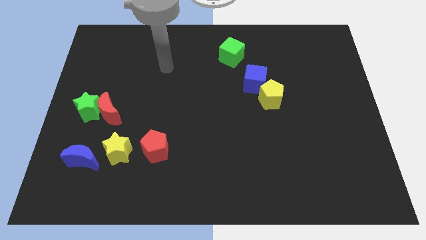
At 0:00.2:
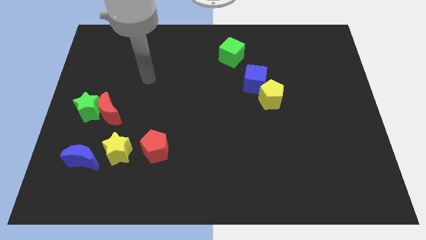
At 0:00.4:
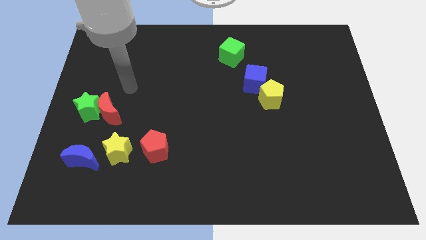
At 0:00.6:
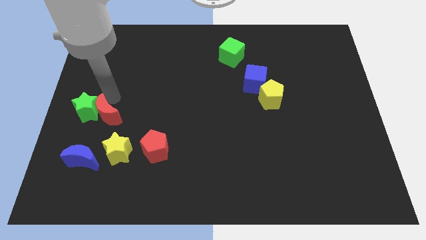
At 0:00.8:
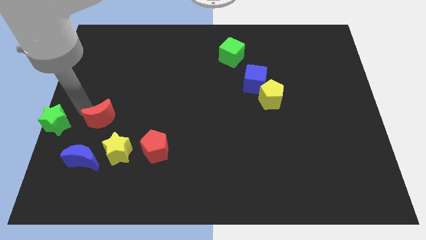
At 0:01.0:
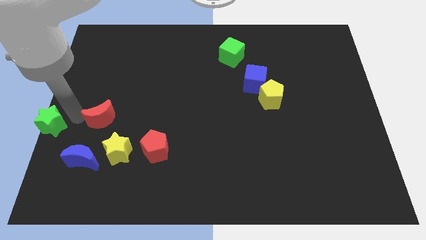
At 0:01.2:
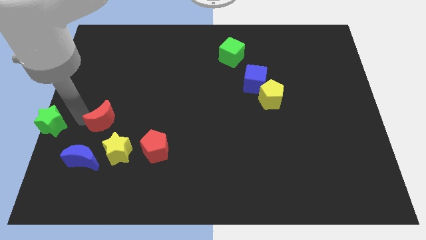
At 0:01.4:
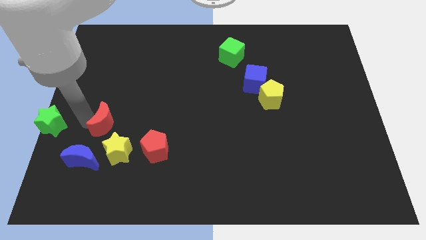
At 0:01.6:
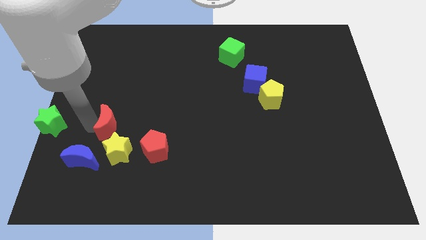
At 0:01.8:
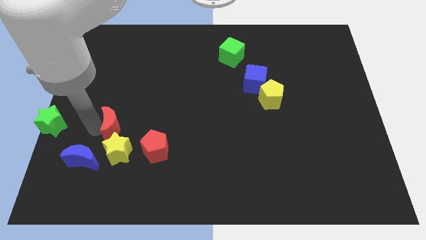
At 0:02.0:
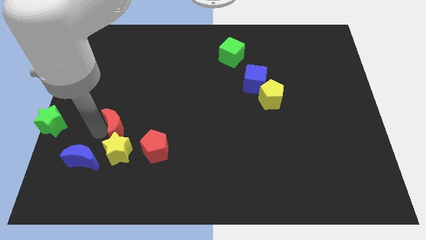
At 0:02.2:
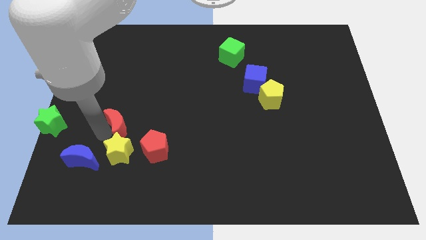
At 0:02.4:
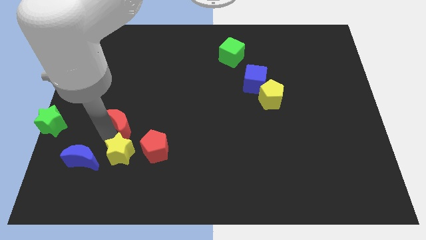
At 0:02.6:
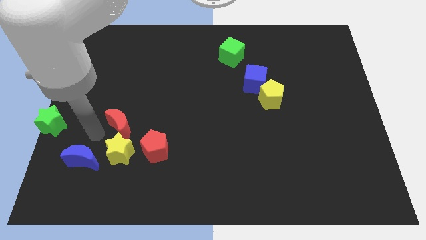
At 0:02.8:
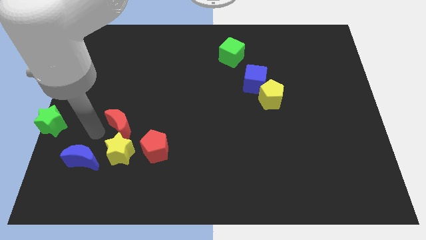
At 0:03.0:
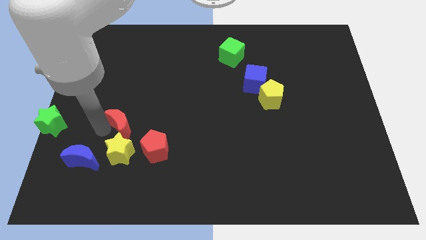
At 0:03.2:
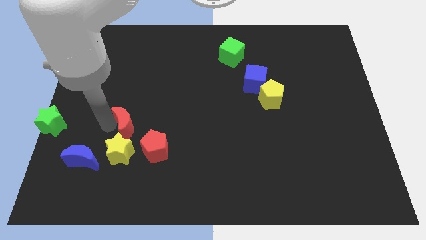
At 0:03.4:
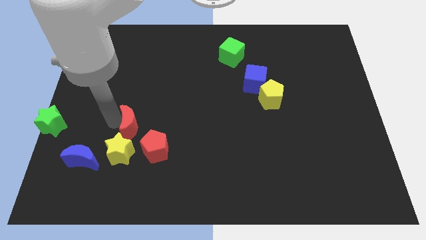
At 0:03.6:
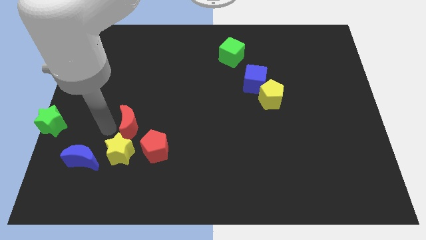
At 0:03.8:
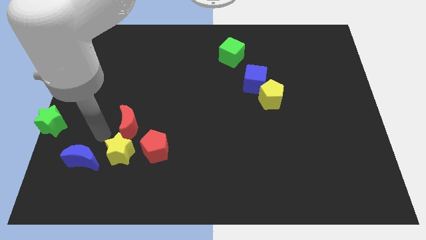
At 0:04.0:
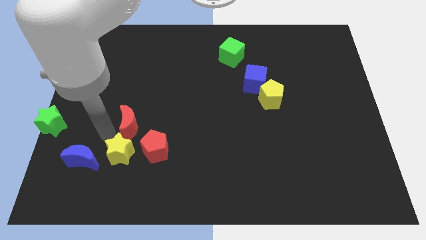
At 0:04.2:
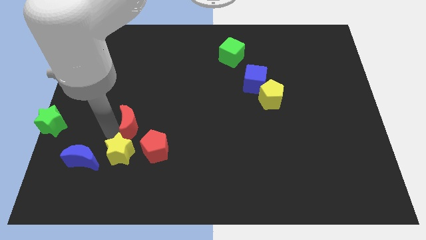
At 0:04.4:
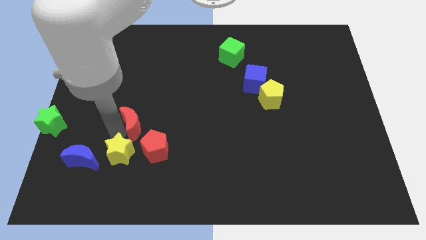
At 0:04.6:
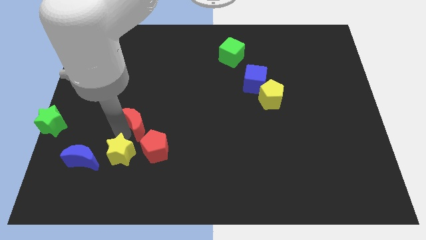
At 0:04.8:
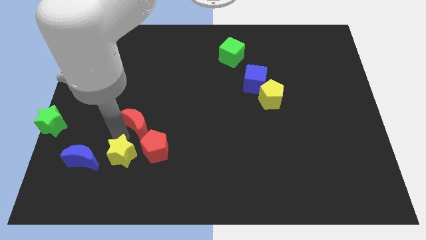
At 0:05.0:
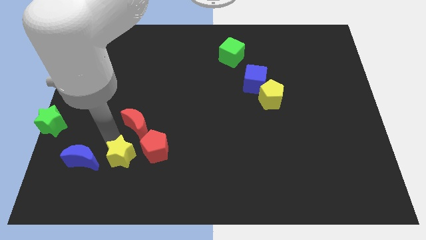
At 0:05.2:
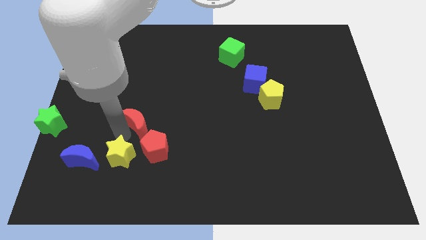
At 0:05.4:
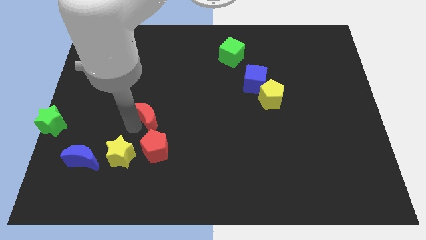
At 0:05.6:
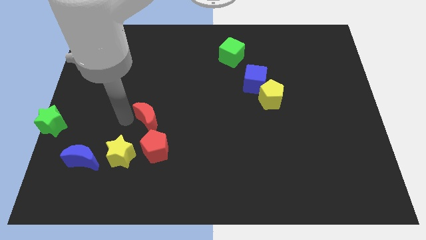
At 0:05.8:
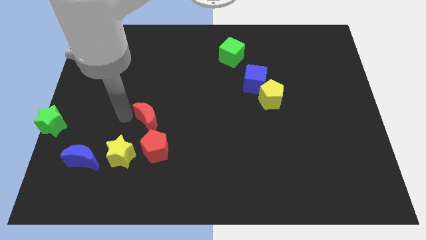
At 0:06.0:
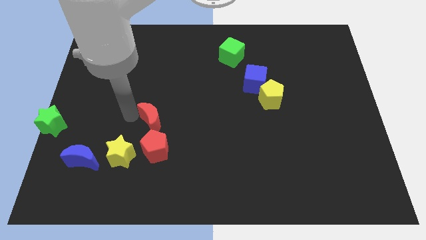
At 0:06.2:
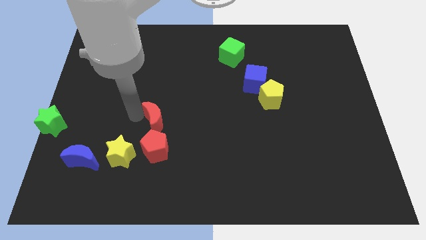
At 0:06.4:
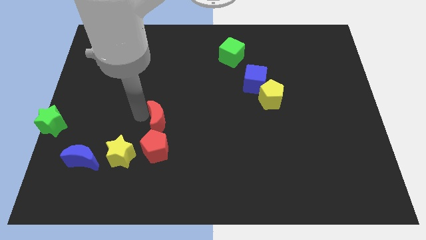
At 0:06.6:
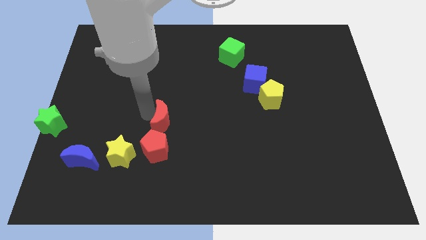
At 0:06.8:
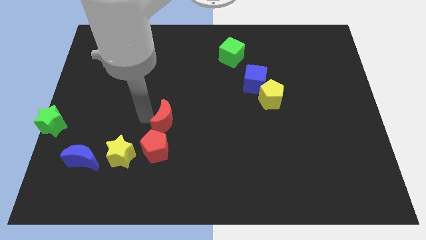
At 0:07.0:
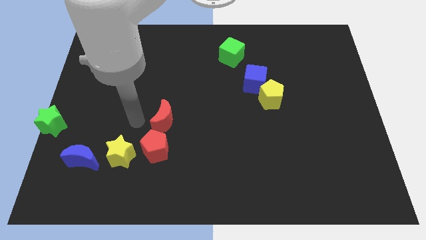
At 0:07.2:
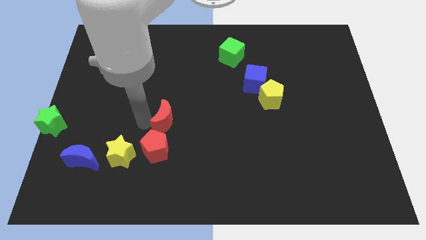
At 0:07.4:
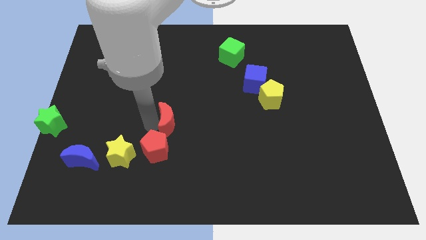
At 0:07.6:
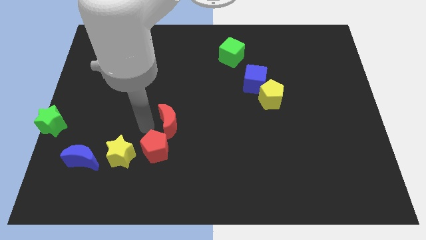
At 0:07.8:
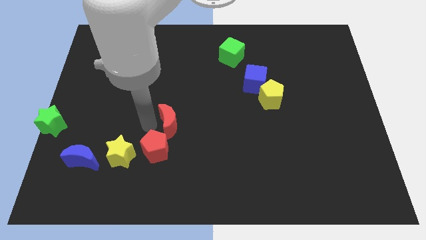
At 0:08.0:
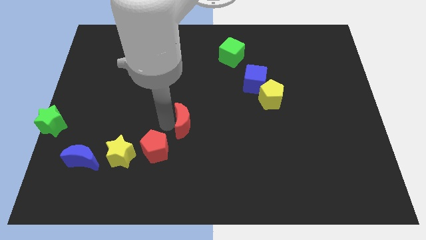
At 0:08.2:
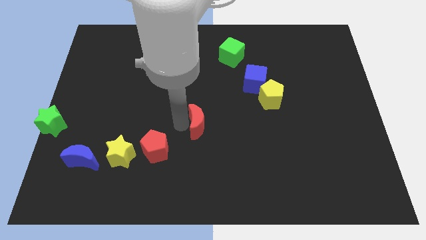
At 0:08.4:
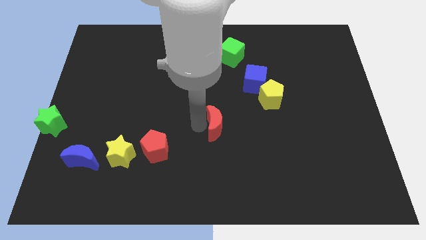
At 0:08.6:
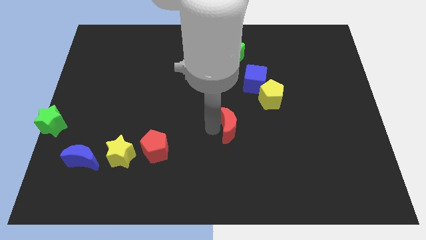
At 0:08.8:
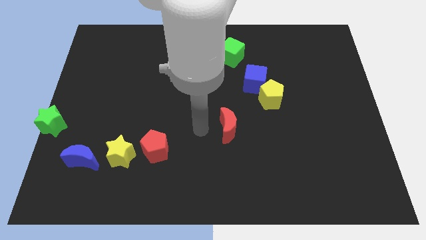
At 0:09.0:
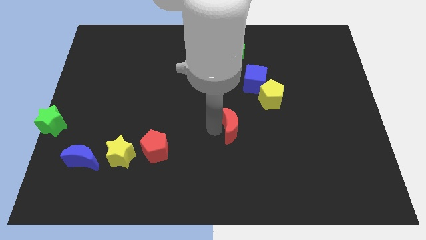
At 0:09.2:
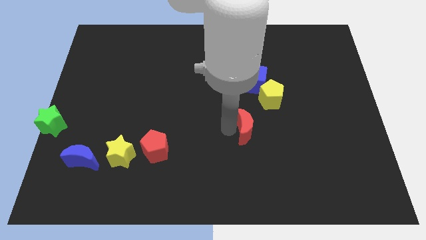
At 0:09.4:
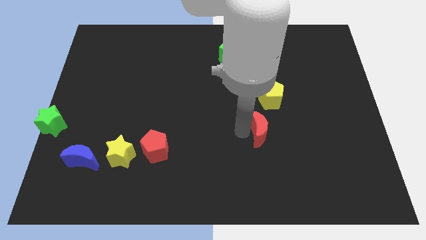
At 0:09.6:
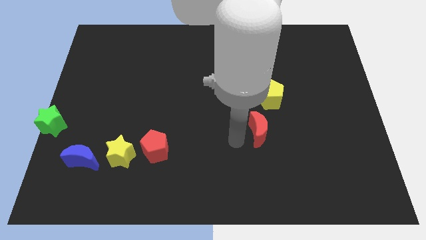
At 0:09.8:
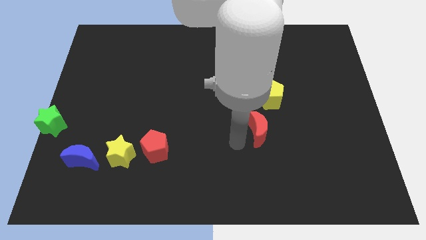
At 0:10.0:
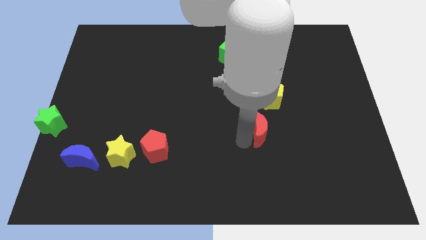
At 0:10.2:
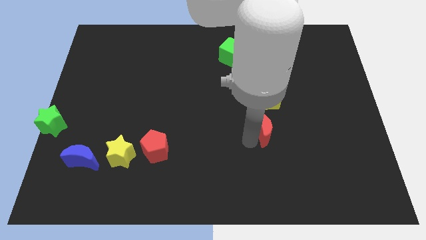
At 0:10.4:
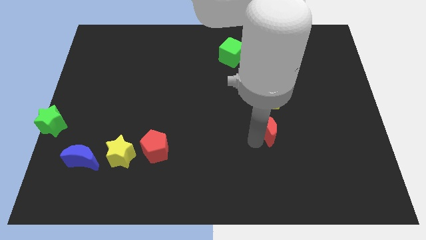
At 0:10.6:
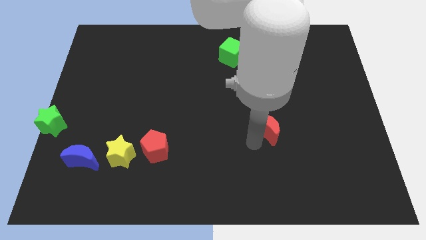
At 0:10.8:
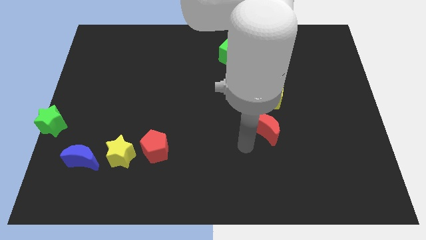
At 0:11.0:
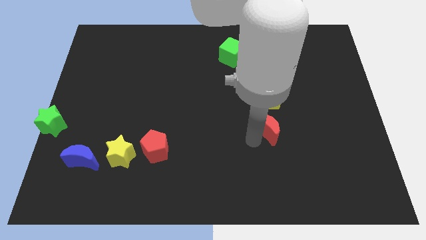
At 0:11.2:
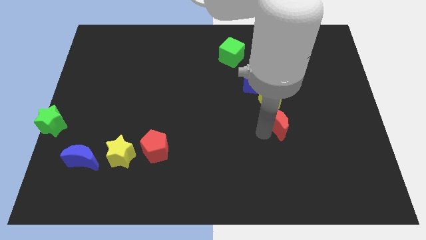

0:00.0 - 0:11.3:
move the red moon to the bottom right side of the yellow pentagon

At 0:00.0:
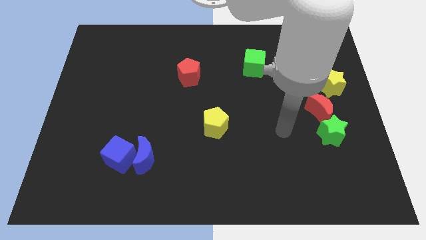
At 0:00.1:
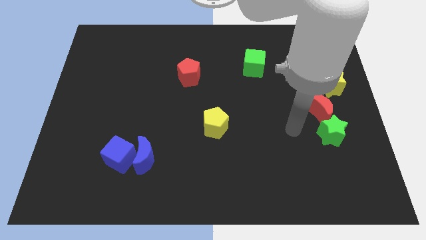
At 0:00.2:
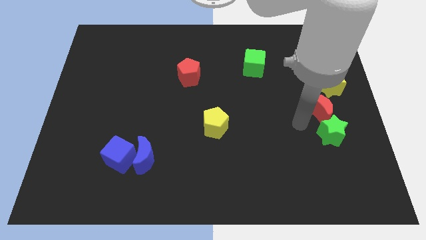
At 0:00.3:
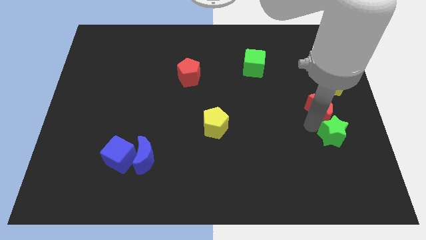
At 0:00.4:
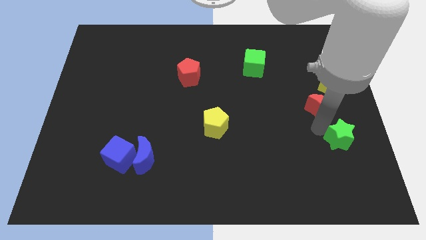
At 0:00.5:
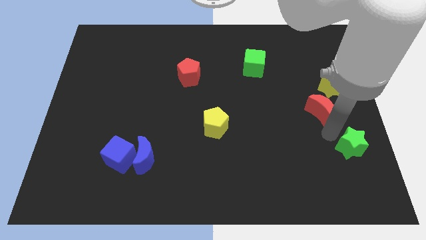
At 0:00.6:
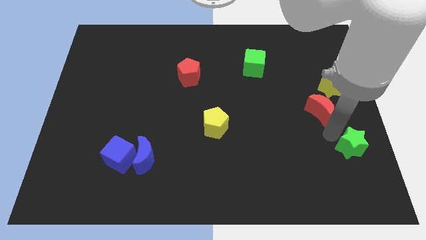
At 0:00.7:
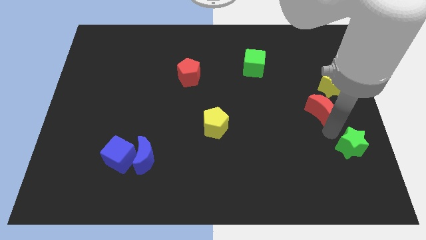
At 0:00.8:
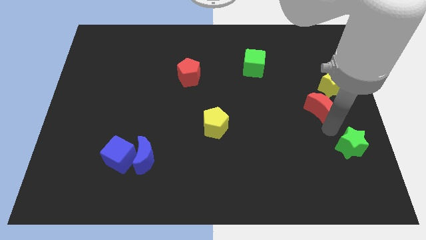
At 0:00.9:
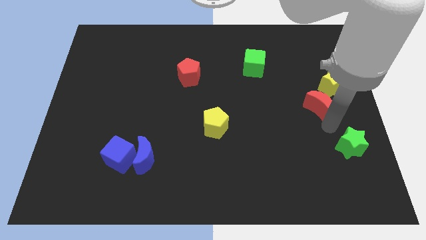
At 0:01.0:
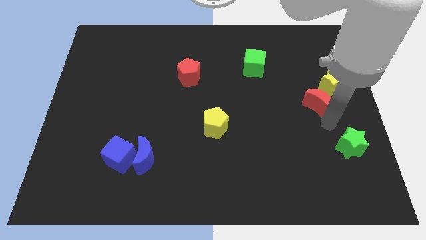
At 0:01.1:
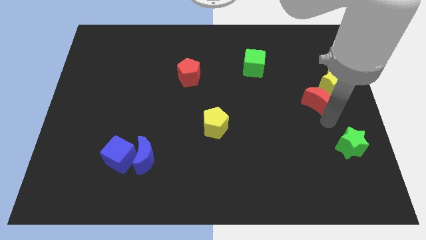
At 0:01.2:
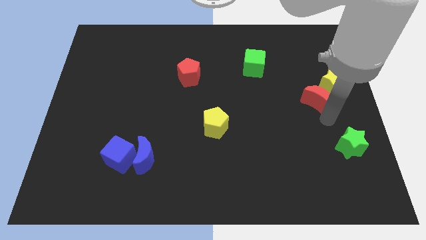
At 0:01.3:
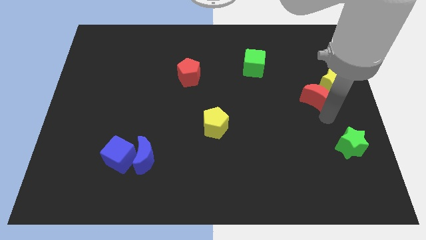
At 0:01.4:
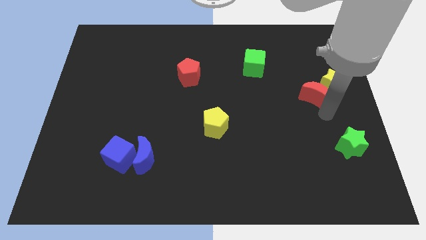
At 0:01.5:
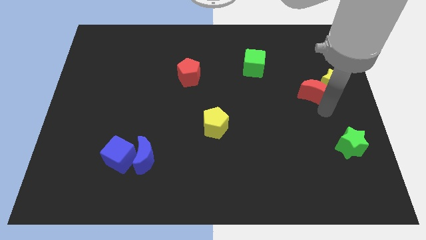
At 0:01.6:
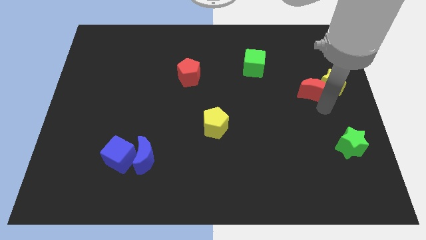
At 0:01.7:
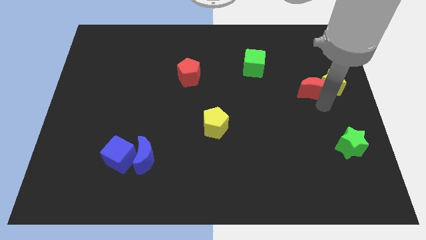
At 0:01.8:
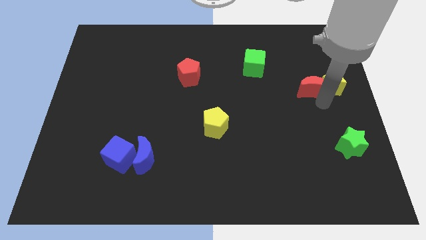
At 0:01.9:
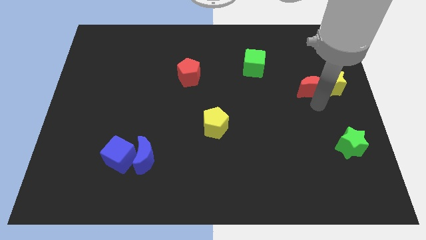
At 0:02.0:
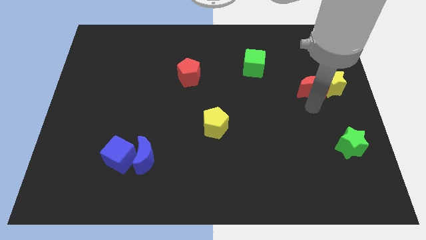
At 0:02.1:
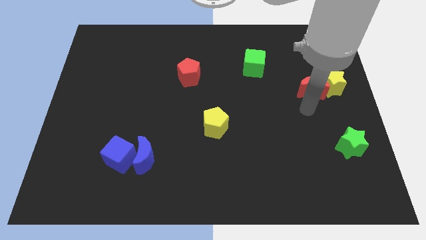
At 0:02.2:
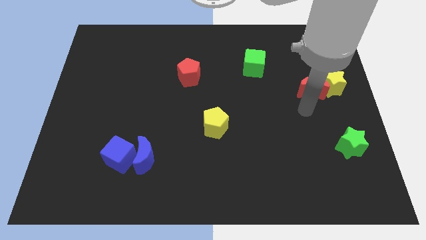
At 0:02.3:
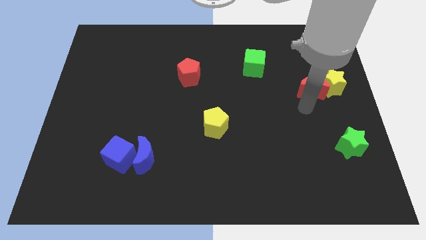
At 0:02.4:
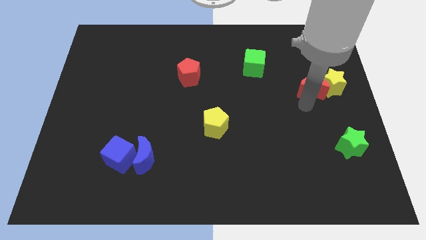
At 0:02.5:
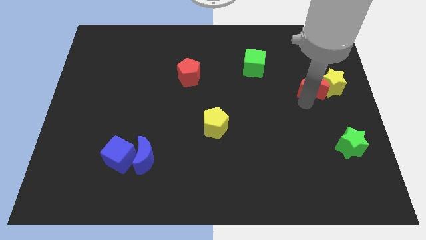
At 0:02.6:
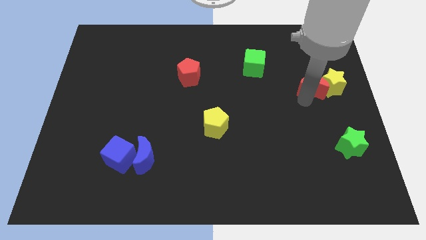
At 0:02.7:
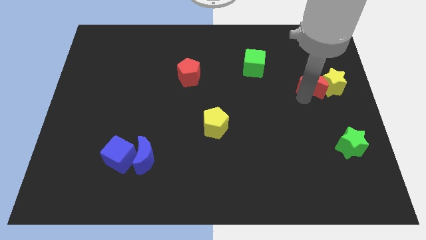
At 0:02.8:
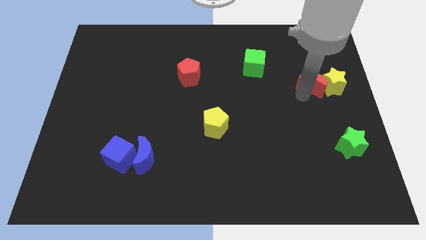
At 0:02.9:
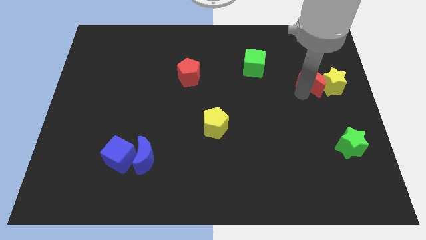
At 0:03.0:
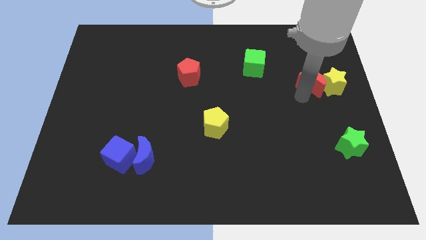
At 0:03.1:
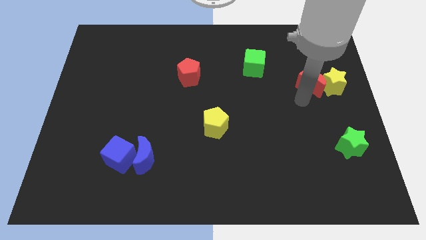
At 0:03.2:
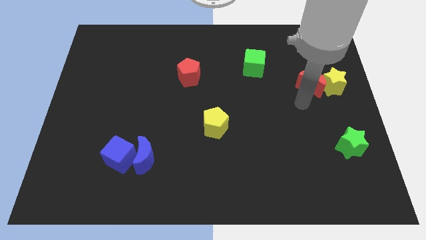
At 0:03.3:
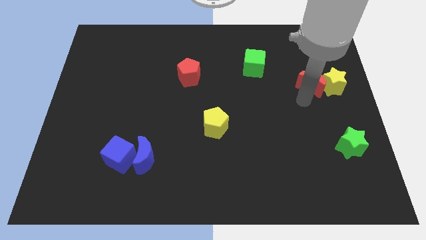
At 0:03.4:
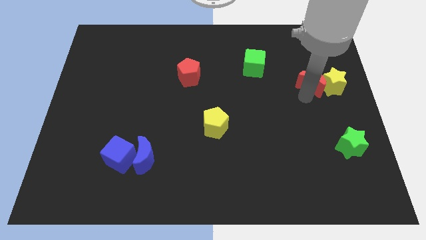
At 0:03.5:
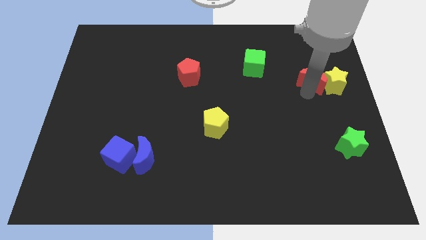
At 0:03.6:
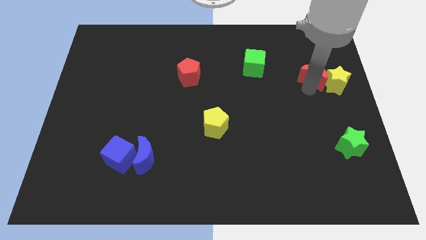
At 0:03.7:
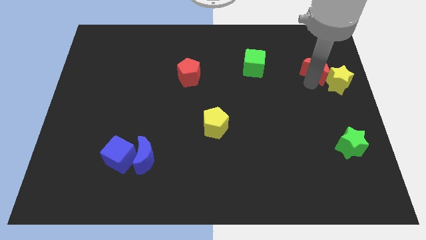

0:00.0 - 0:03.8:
move the red moon to the top side of the yellow star
